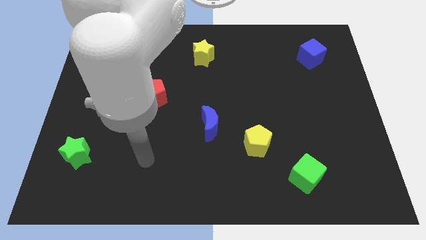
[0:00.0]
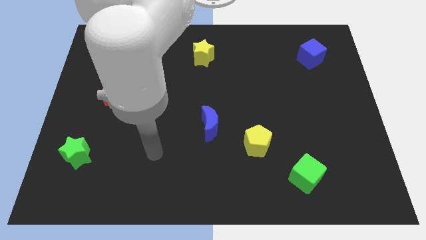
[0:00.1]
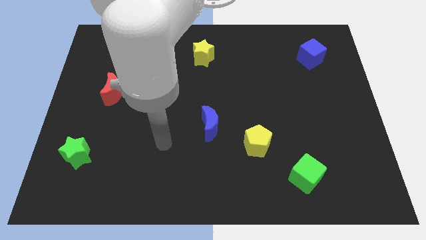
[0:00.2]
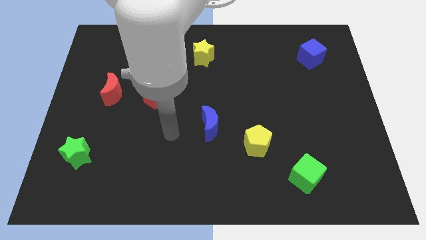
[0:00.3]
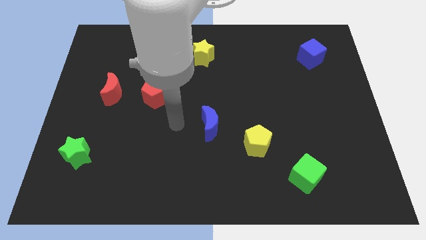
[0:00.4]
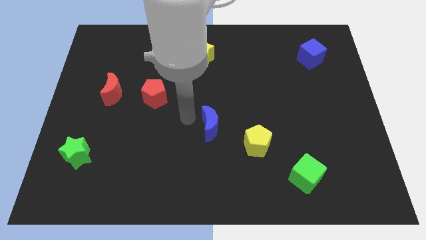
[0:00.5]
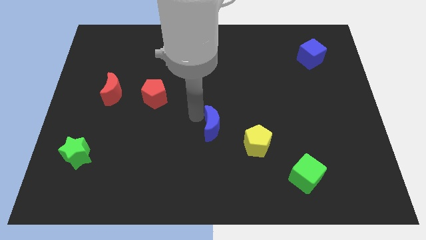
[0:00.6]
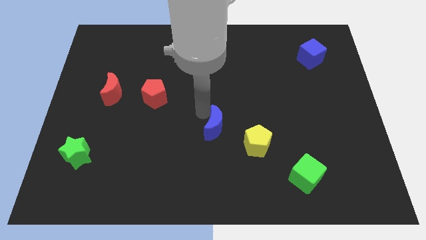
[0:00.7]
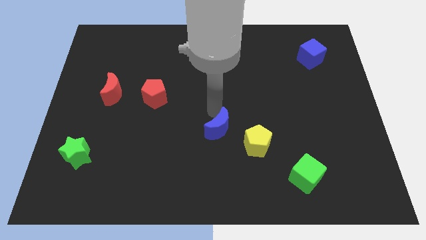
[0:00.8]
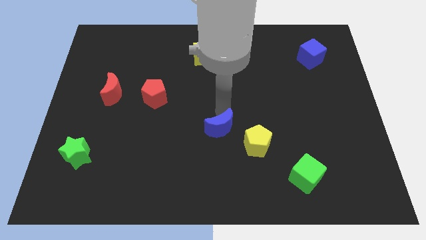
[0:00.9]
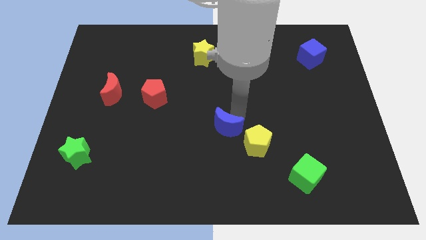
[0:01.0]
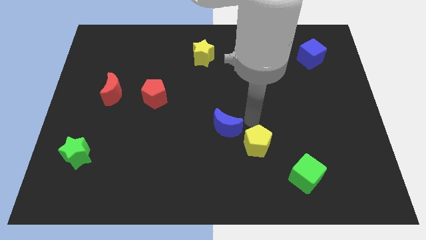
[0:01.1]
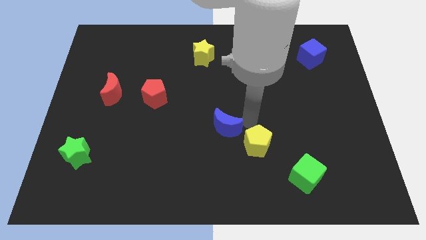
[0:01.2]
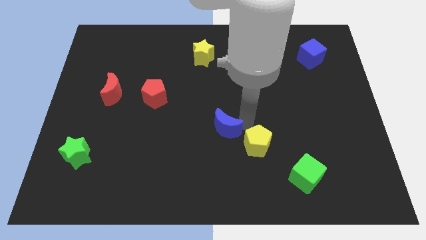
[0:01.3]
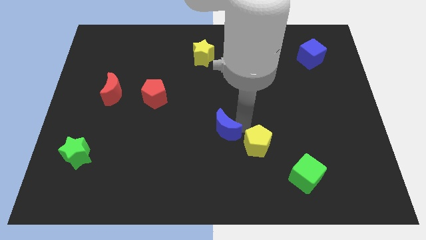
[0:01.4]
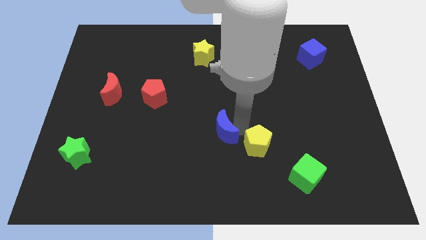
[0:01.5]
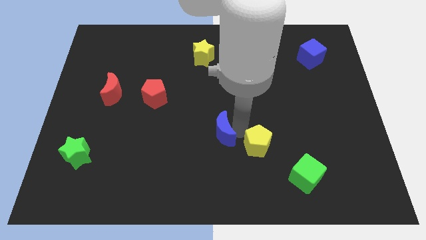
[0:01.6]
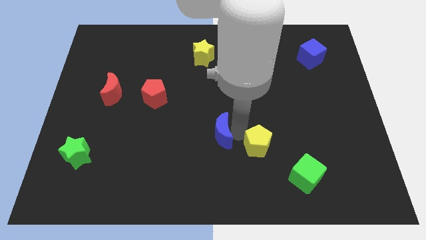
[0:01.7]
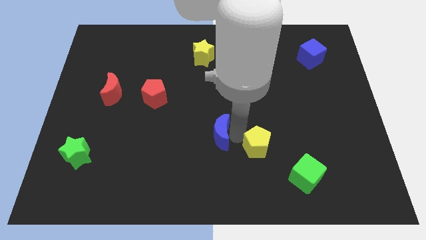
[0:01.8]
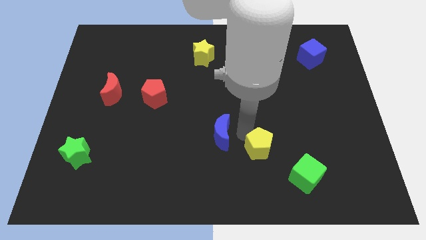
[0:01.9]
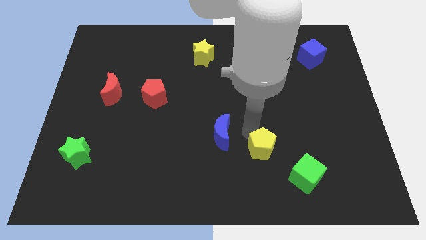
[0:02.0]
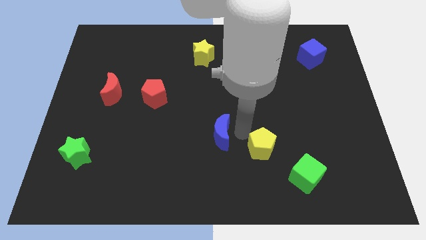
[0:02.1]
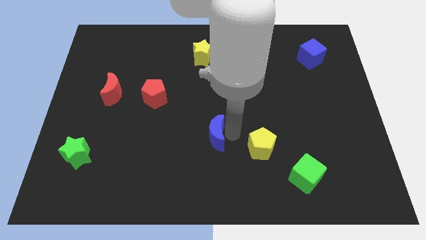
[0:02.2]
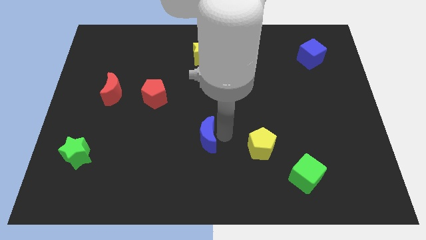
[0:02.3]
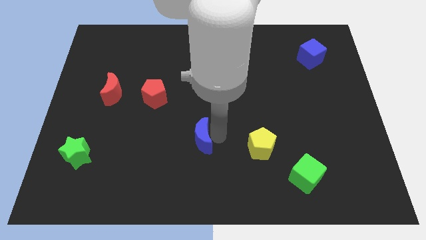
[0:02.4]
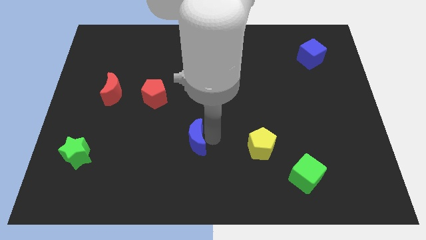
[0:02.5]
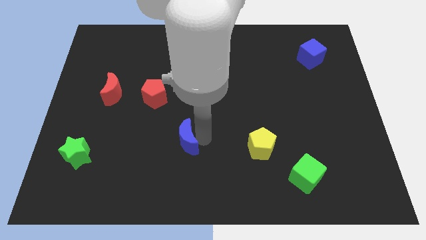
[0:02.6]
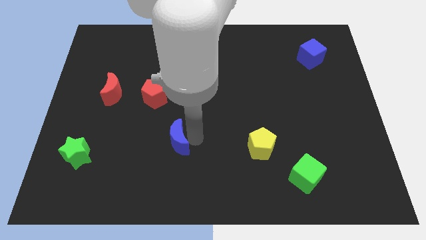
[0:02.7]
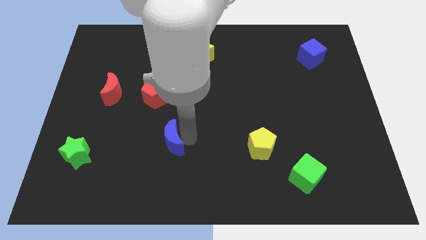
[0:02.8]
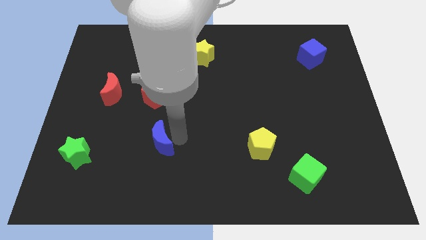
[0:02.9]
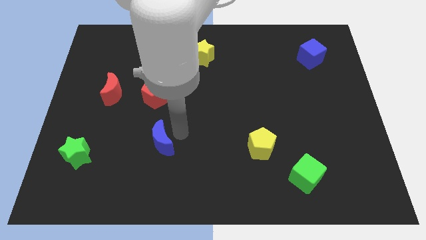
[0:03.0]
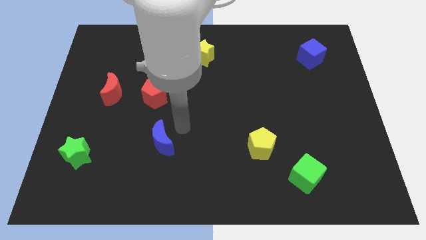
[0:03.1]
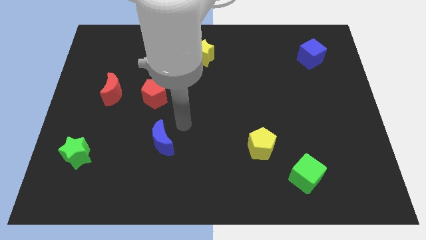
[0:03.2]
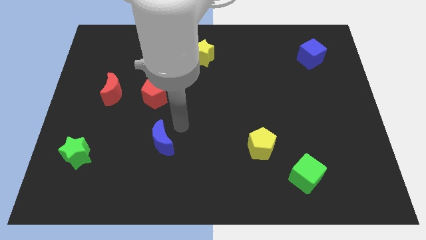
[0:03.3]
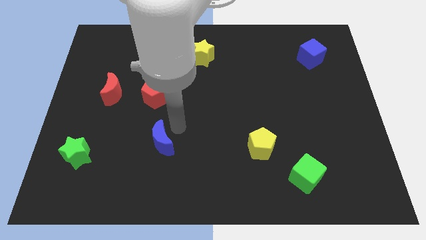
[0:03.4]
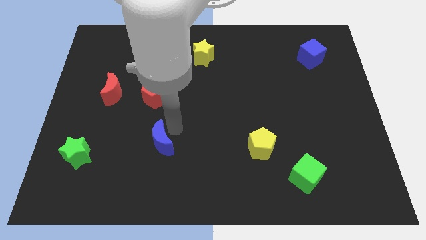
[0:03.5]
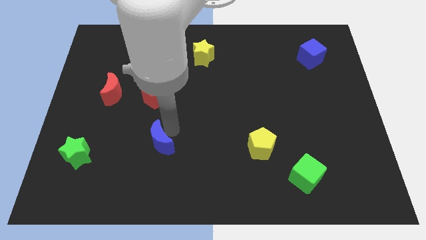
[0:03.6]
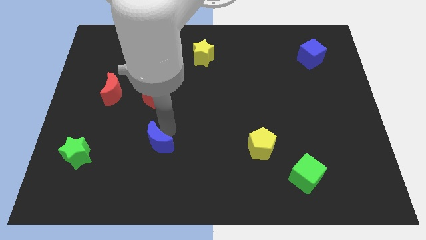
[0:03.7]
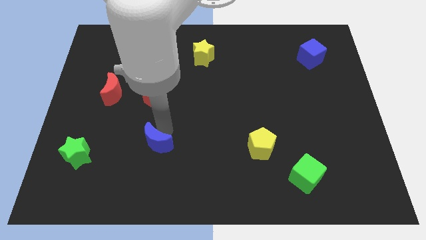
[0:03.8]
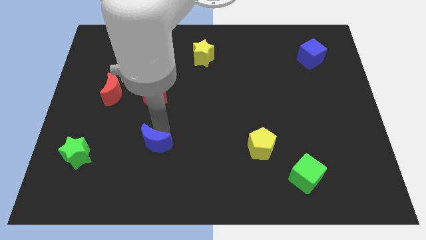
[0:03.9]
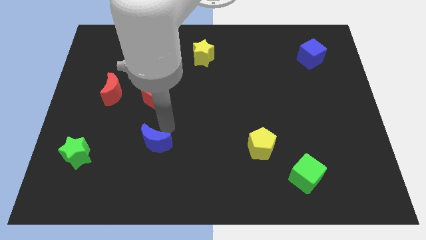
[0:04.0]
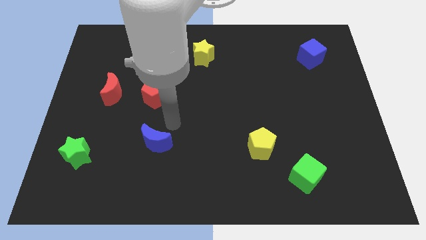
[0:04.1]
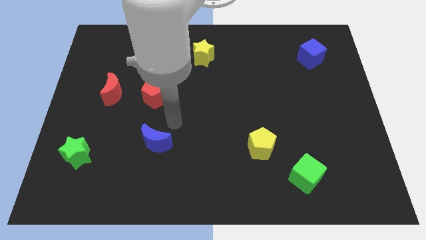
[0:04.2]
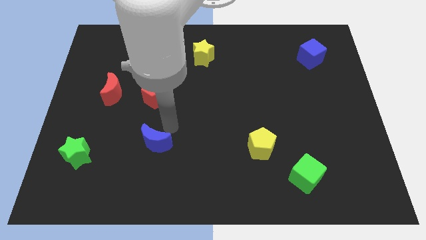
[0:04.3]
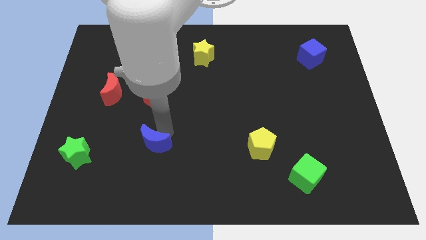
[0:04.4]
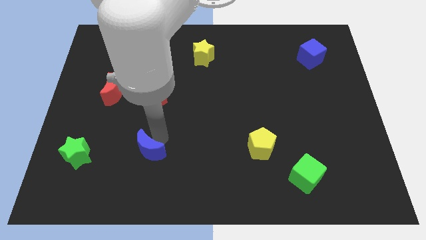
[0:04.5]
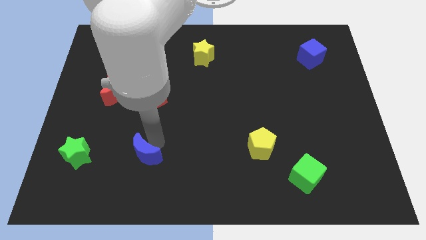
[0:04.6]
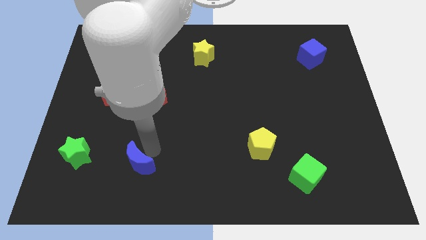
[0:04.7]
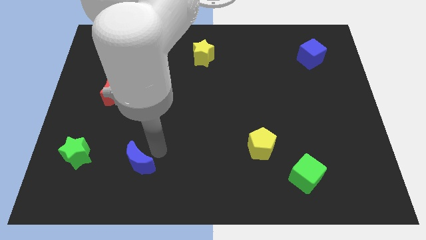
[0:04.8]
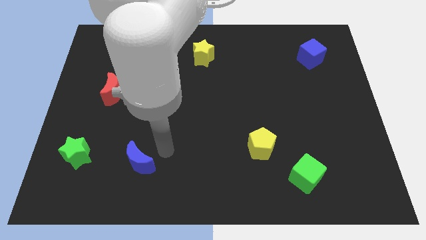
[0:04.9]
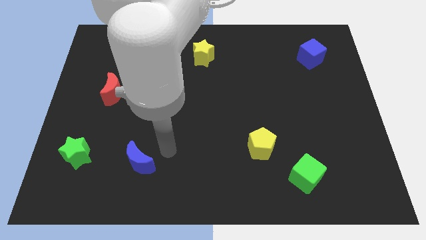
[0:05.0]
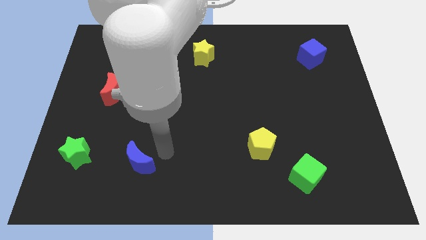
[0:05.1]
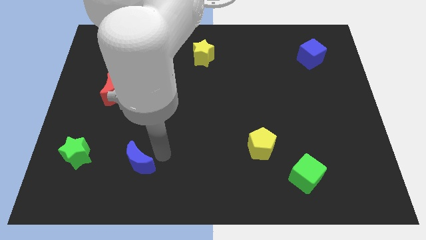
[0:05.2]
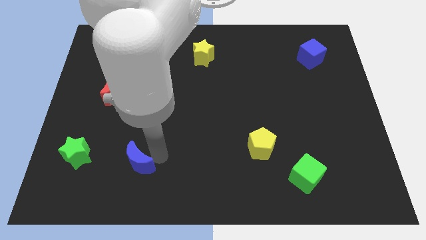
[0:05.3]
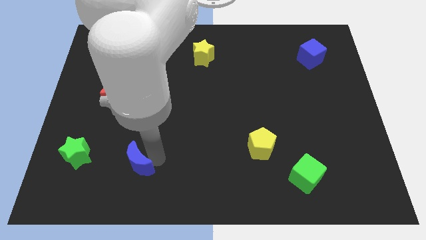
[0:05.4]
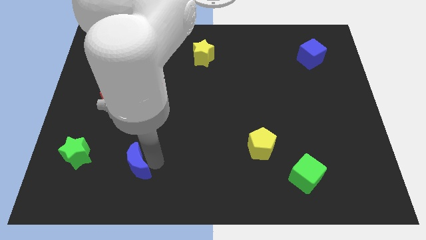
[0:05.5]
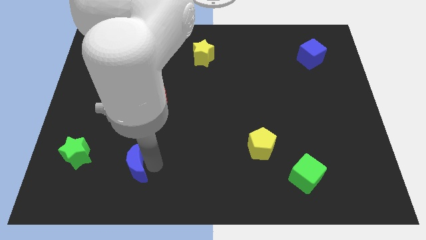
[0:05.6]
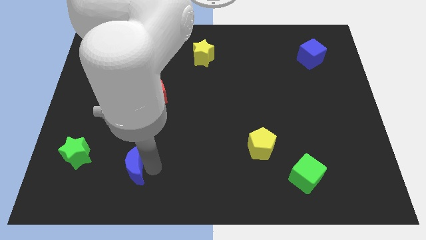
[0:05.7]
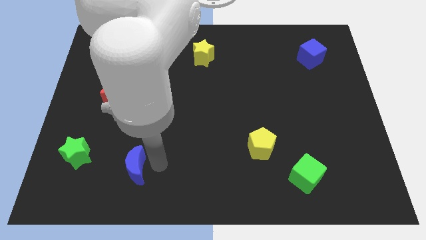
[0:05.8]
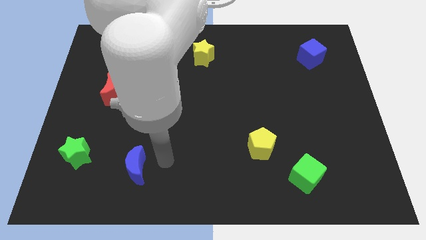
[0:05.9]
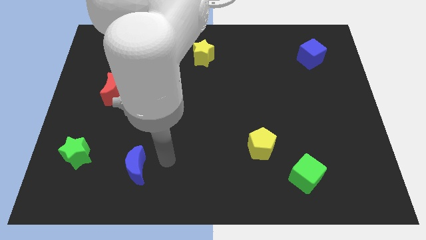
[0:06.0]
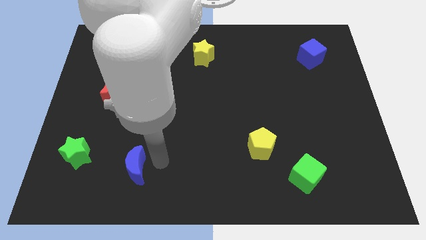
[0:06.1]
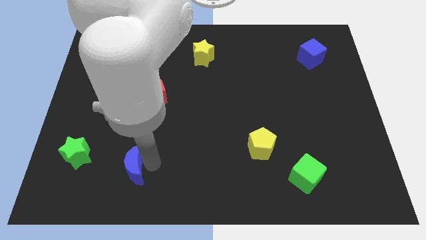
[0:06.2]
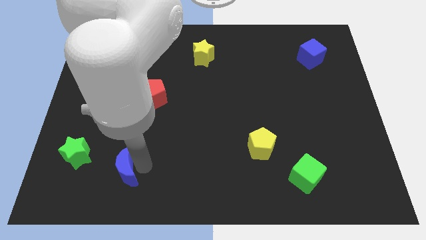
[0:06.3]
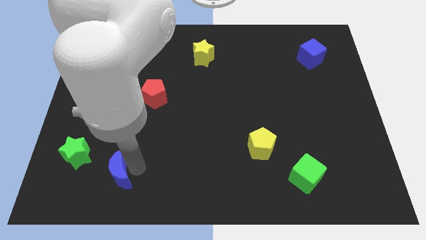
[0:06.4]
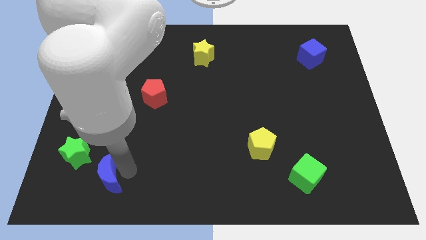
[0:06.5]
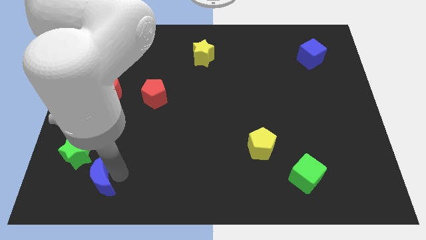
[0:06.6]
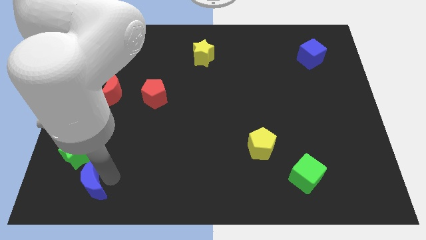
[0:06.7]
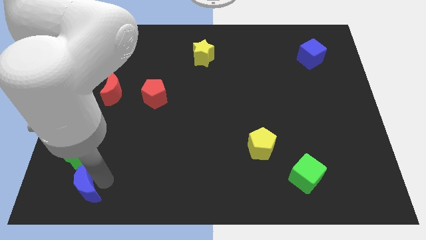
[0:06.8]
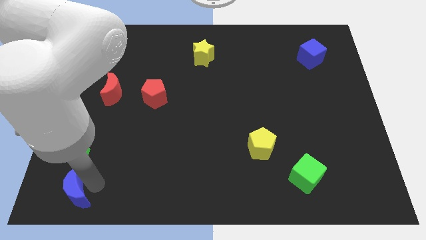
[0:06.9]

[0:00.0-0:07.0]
move the blue moon to the bottom left corner

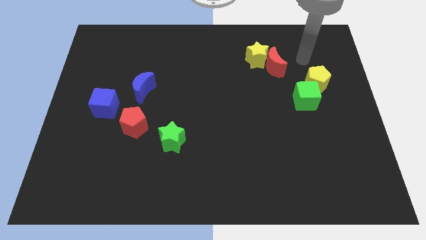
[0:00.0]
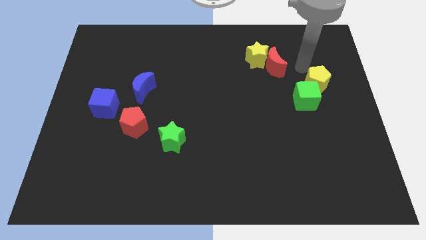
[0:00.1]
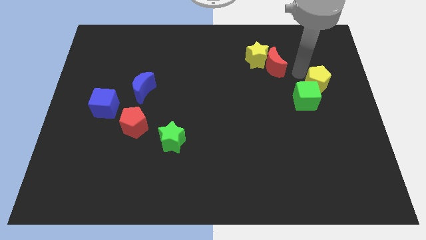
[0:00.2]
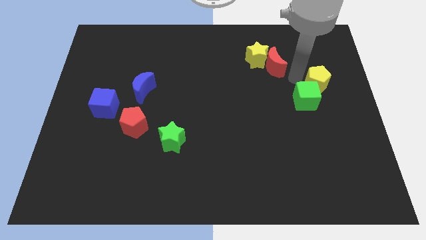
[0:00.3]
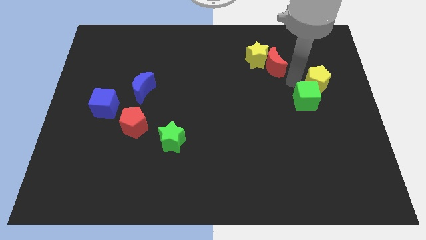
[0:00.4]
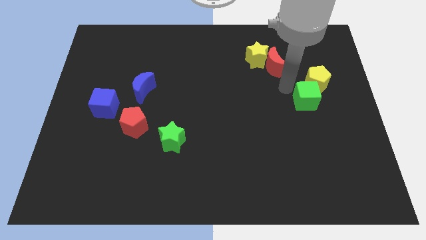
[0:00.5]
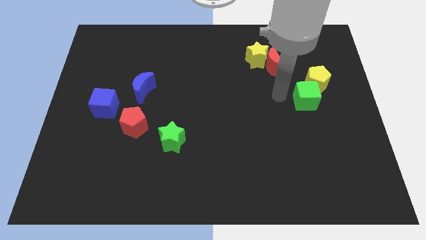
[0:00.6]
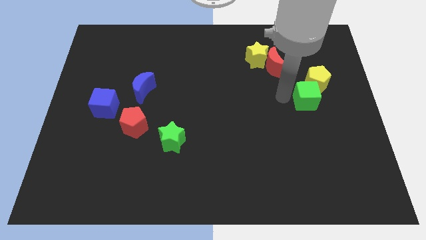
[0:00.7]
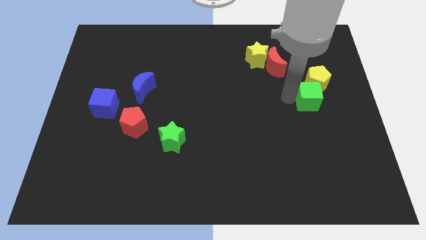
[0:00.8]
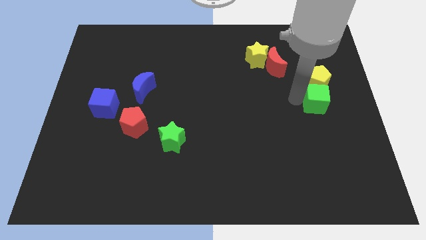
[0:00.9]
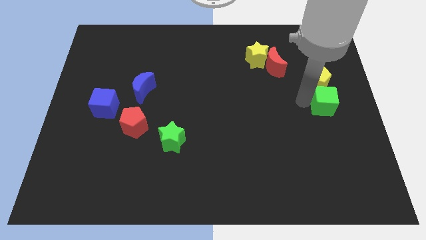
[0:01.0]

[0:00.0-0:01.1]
slide the green cube to the right side of the board
